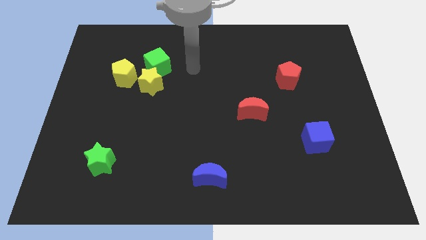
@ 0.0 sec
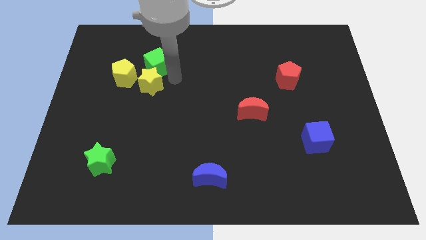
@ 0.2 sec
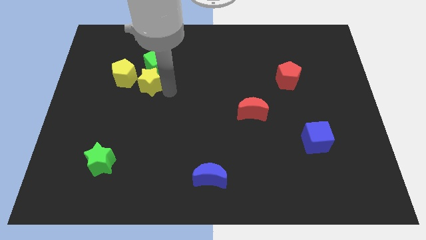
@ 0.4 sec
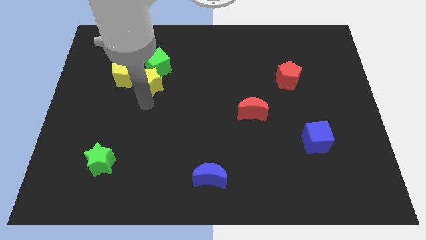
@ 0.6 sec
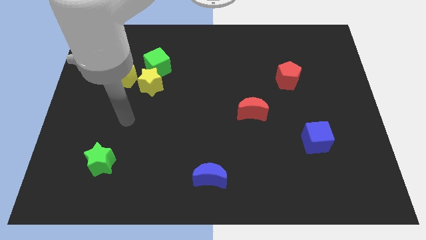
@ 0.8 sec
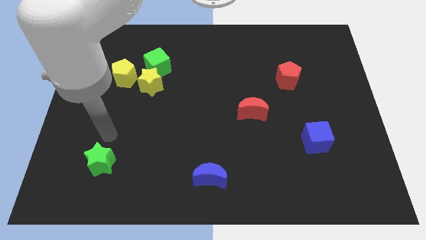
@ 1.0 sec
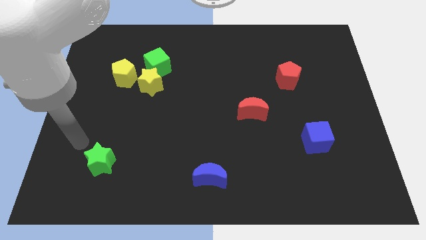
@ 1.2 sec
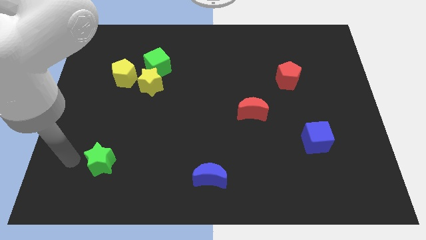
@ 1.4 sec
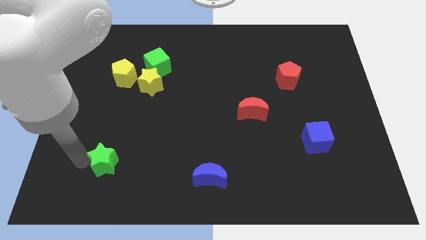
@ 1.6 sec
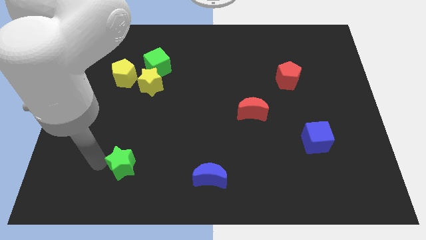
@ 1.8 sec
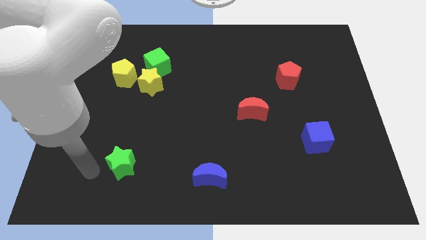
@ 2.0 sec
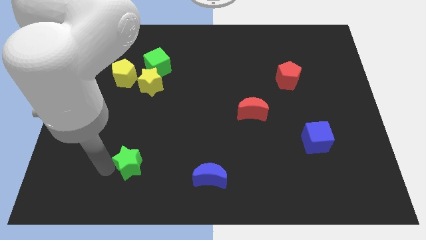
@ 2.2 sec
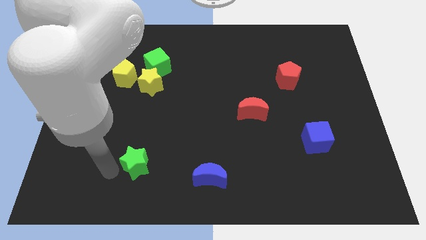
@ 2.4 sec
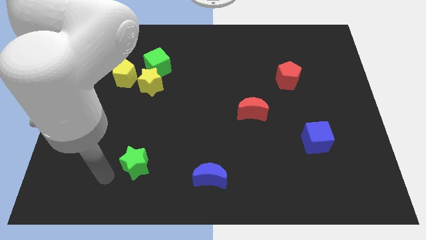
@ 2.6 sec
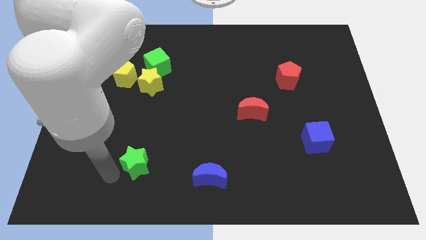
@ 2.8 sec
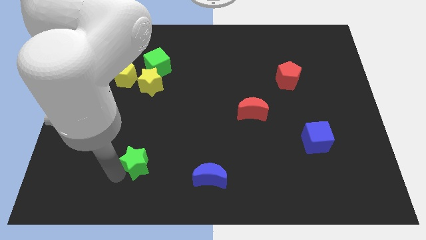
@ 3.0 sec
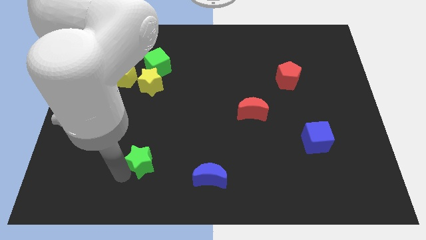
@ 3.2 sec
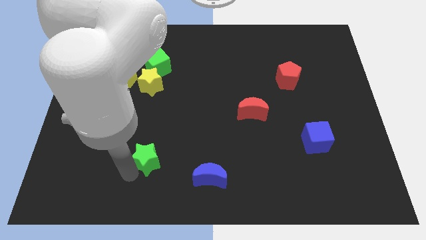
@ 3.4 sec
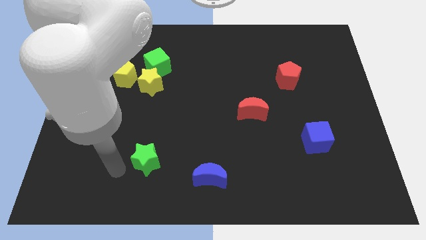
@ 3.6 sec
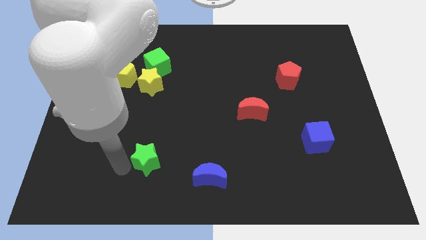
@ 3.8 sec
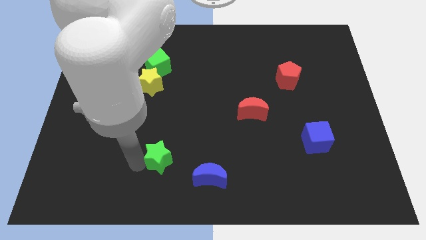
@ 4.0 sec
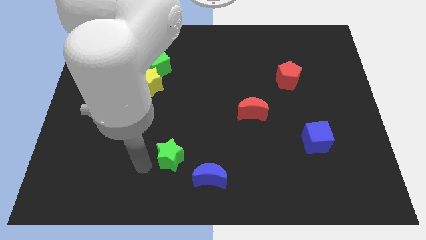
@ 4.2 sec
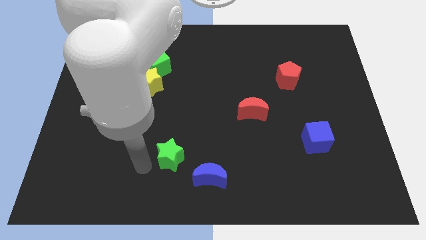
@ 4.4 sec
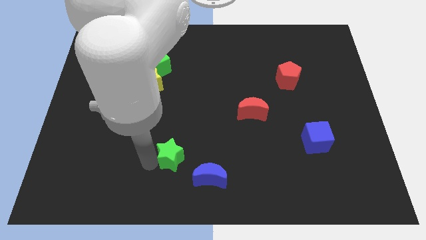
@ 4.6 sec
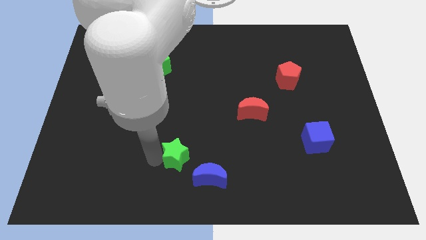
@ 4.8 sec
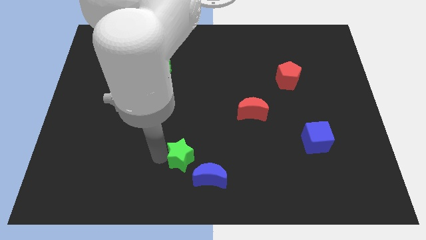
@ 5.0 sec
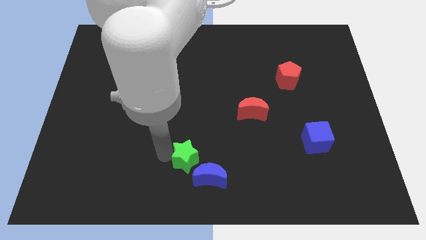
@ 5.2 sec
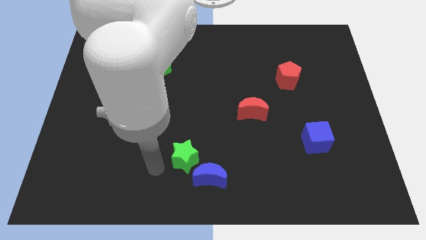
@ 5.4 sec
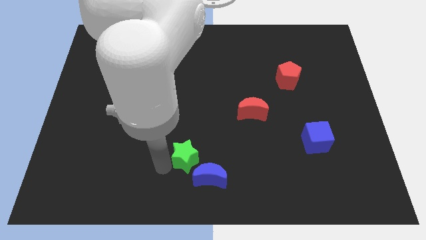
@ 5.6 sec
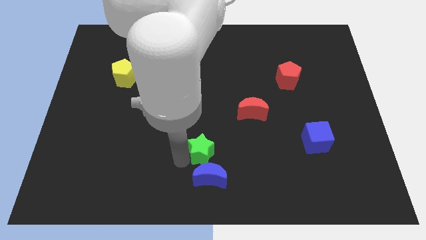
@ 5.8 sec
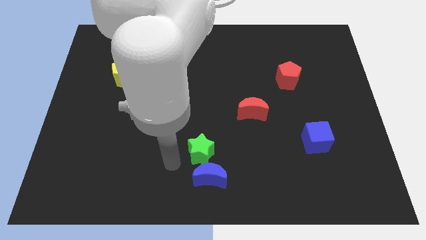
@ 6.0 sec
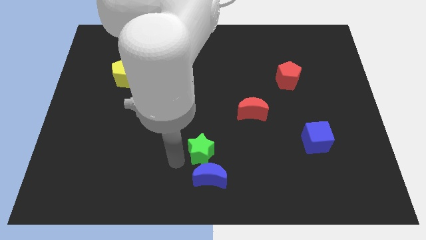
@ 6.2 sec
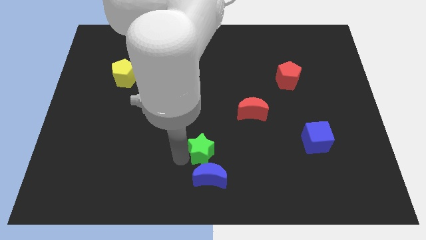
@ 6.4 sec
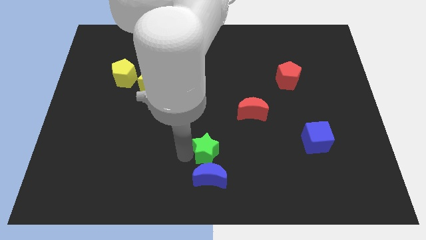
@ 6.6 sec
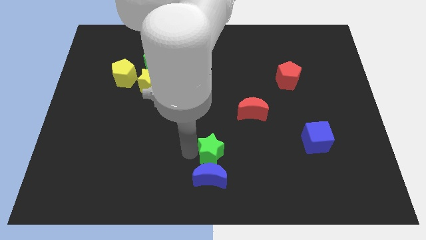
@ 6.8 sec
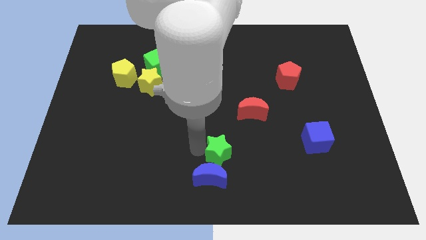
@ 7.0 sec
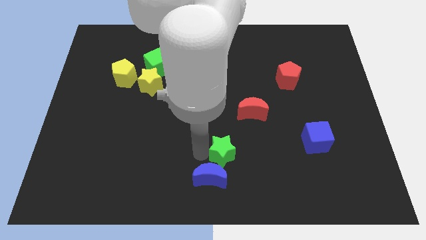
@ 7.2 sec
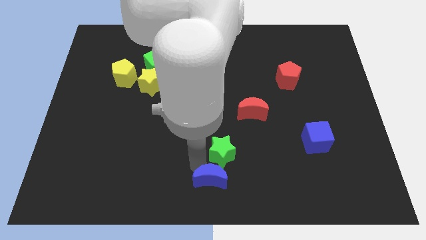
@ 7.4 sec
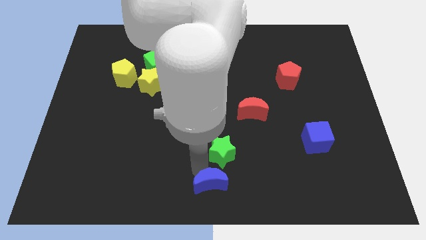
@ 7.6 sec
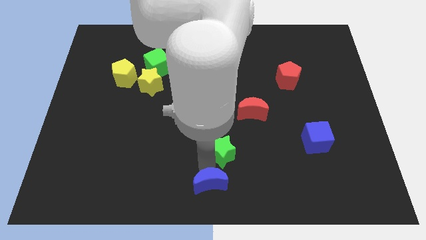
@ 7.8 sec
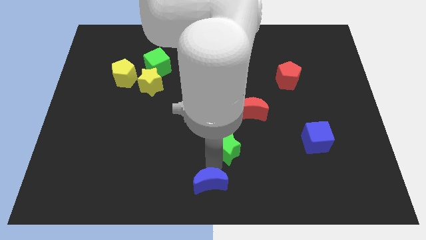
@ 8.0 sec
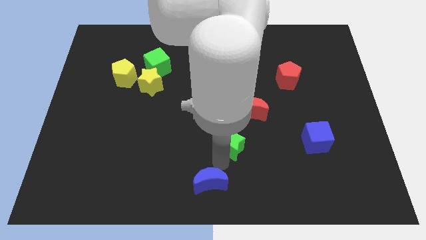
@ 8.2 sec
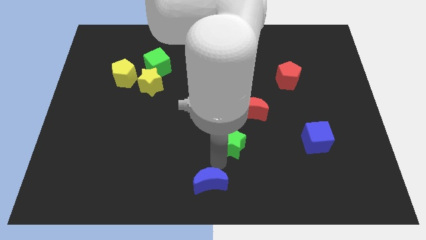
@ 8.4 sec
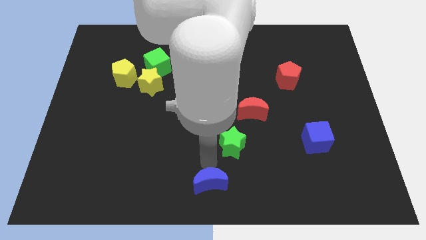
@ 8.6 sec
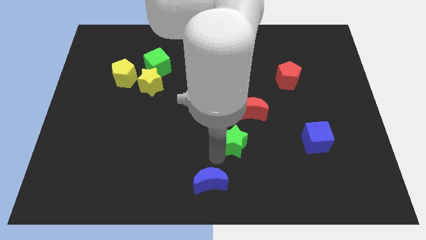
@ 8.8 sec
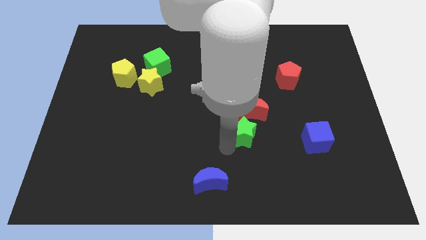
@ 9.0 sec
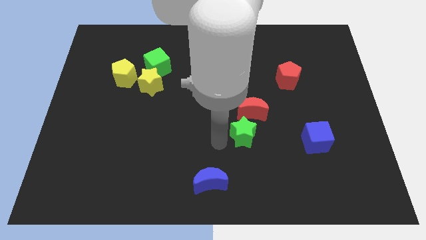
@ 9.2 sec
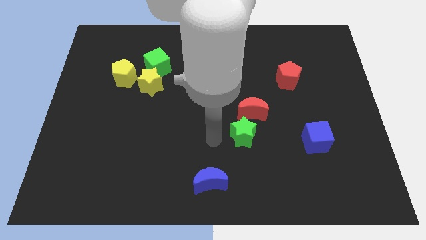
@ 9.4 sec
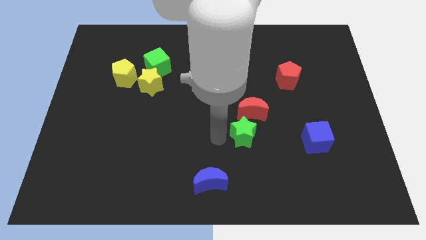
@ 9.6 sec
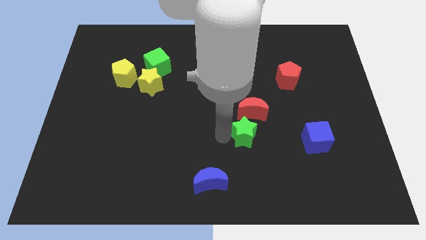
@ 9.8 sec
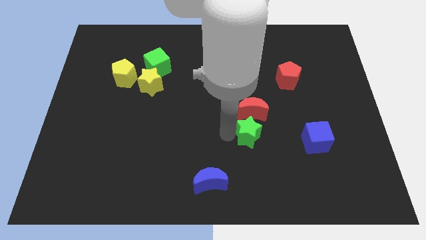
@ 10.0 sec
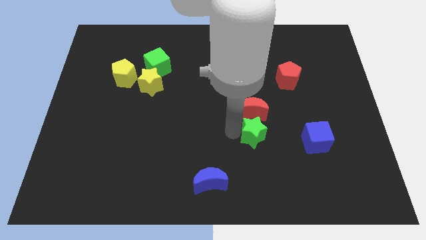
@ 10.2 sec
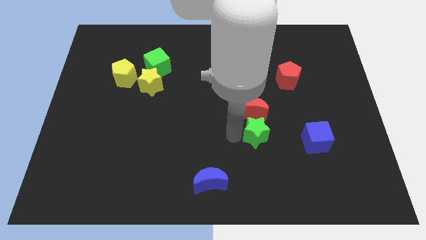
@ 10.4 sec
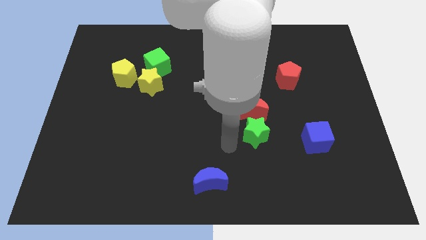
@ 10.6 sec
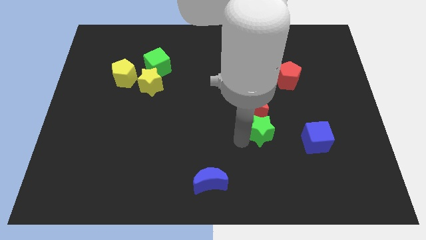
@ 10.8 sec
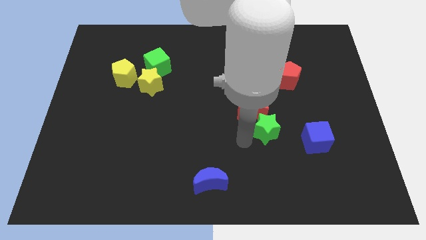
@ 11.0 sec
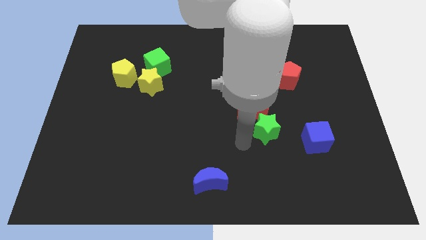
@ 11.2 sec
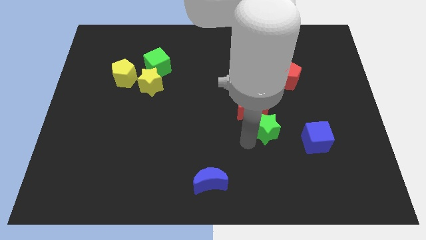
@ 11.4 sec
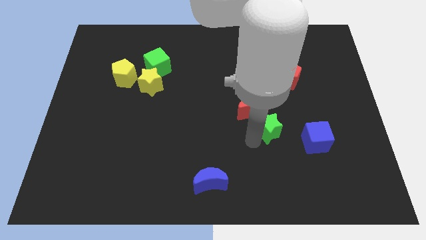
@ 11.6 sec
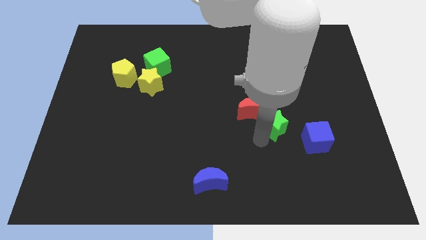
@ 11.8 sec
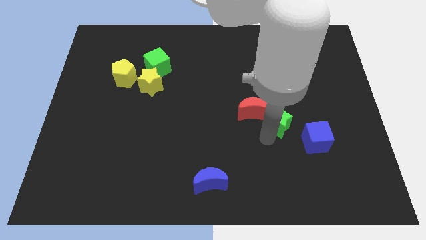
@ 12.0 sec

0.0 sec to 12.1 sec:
slide the green star to the bottom side of the red pentagon
